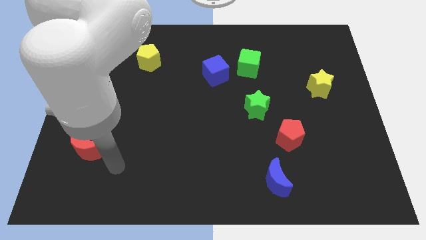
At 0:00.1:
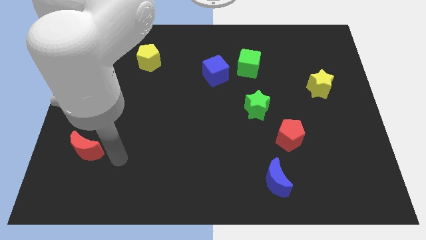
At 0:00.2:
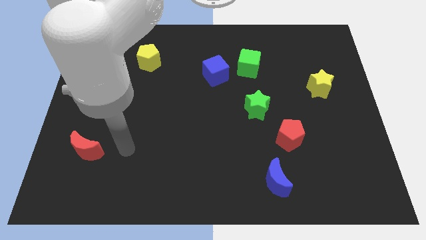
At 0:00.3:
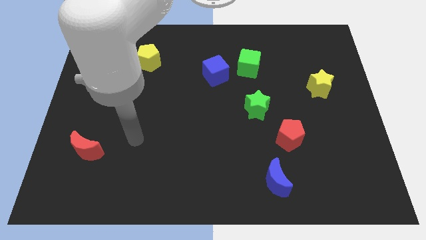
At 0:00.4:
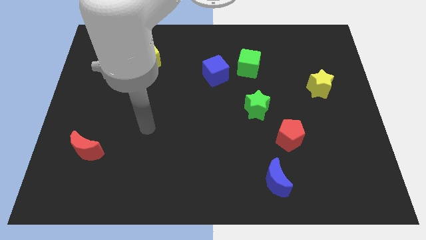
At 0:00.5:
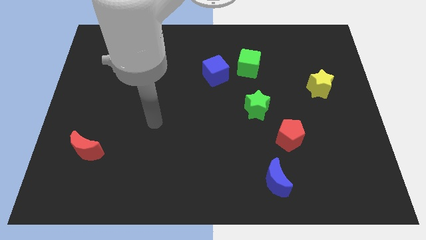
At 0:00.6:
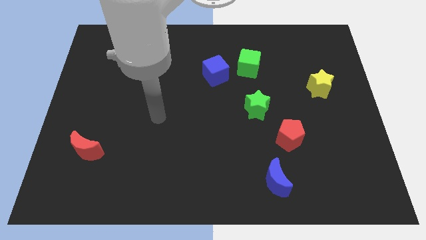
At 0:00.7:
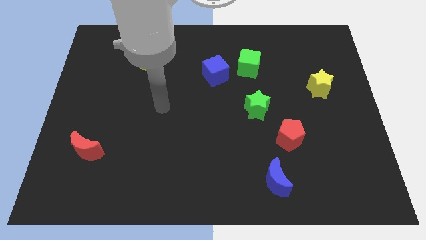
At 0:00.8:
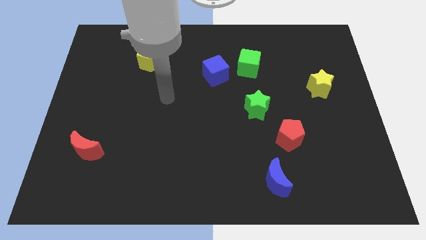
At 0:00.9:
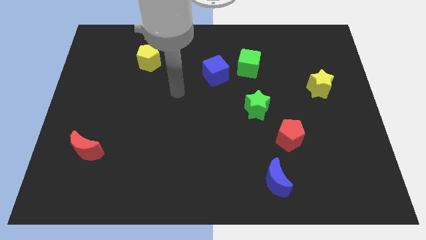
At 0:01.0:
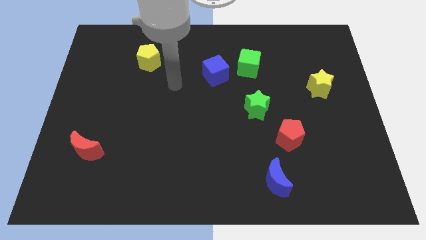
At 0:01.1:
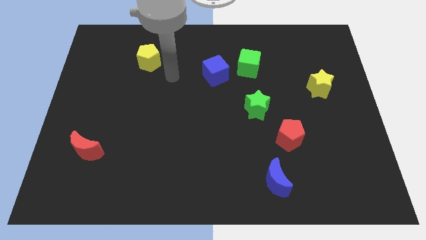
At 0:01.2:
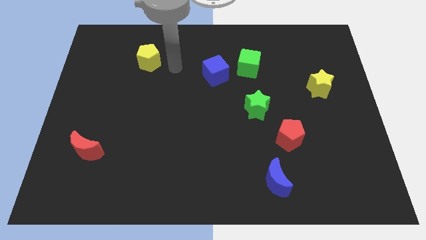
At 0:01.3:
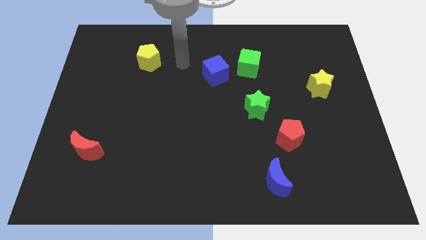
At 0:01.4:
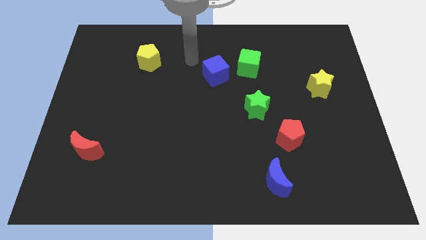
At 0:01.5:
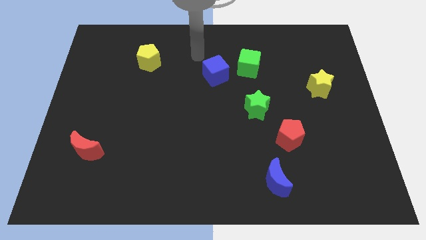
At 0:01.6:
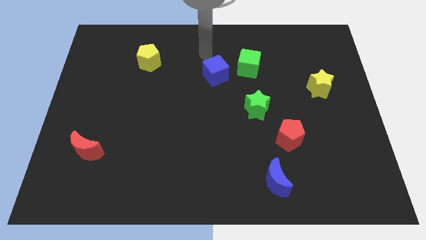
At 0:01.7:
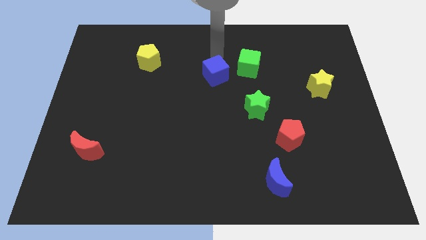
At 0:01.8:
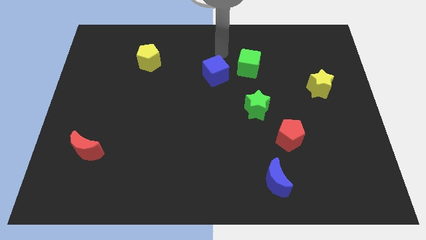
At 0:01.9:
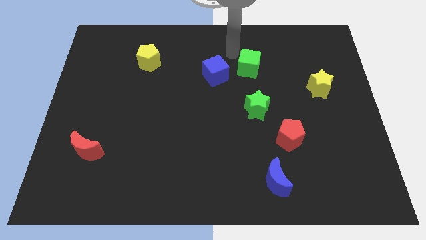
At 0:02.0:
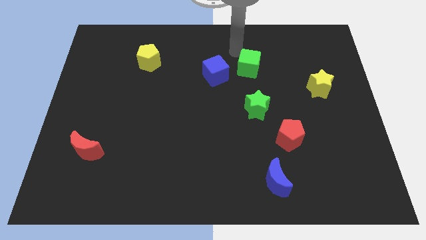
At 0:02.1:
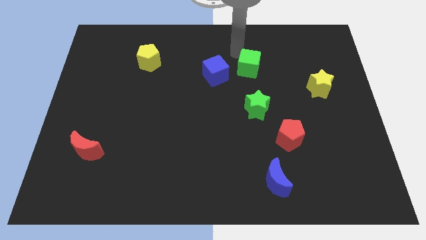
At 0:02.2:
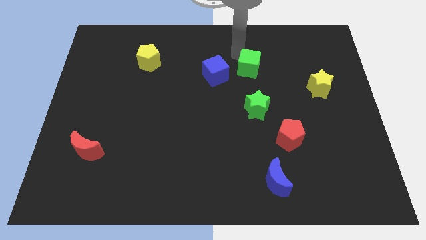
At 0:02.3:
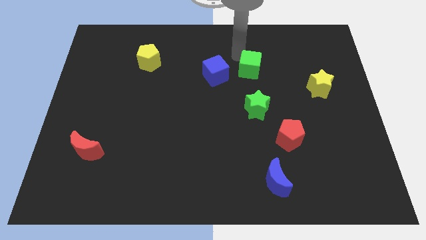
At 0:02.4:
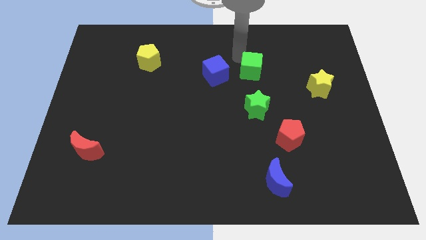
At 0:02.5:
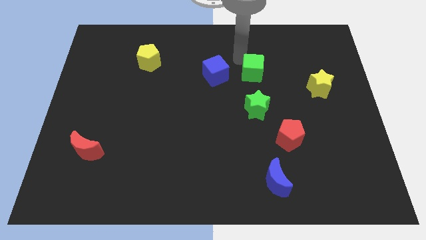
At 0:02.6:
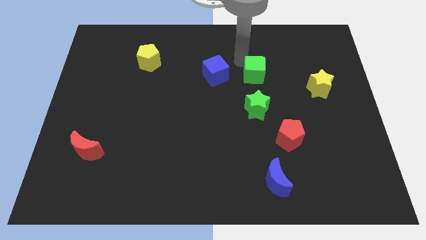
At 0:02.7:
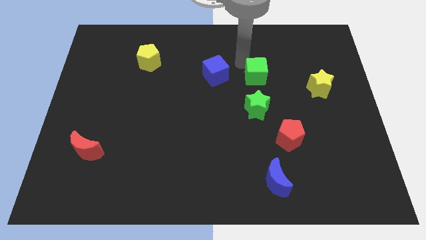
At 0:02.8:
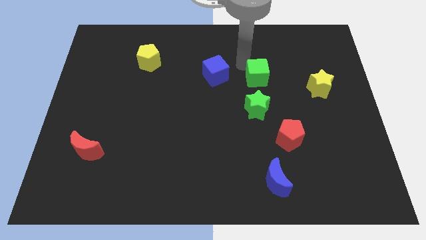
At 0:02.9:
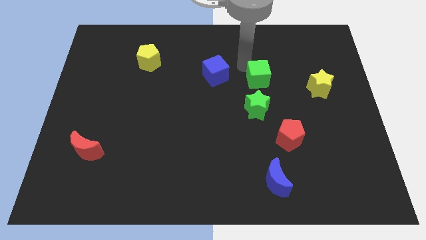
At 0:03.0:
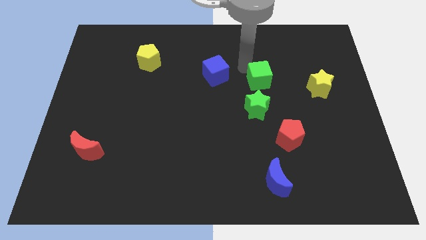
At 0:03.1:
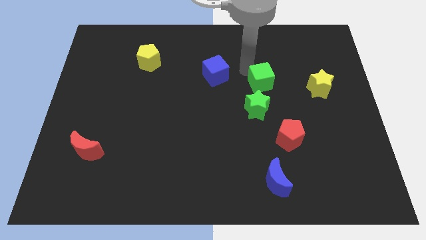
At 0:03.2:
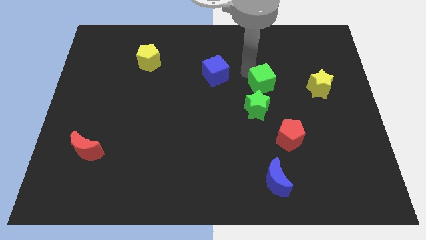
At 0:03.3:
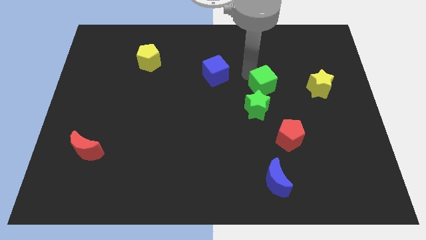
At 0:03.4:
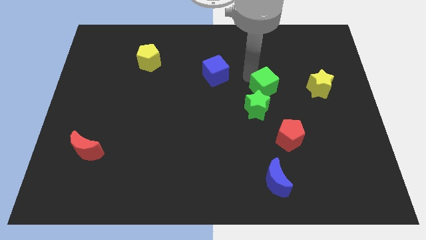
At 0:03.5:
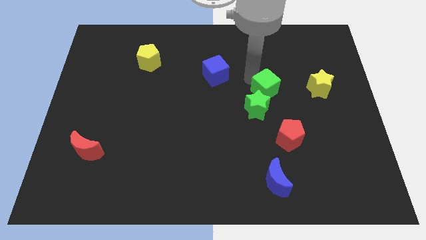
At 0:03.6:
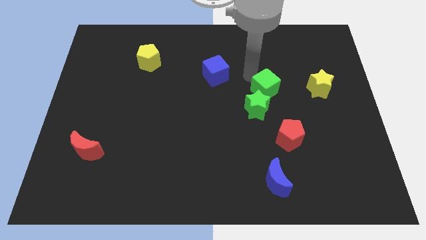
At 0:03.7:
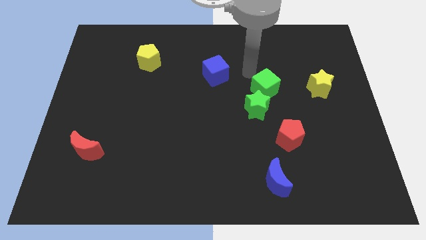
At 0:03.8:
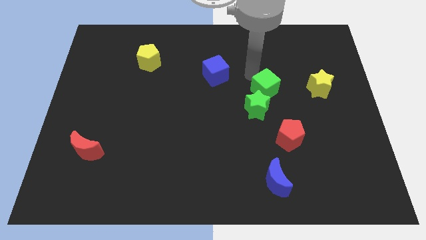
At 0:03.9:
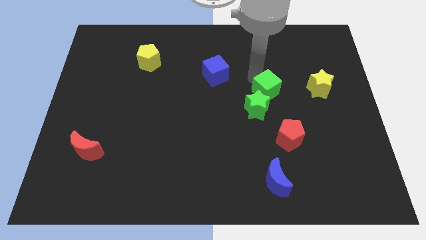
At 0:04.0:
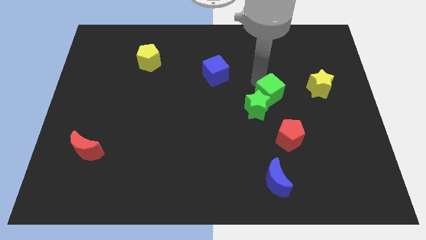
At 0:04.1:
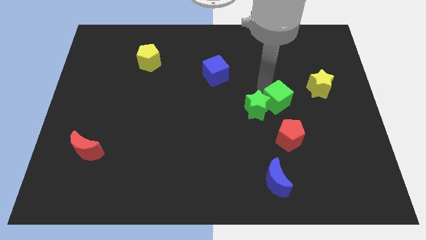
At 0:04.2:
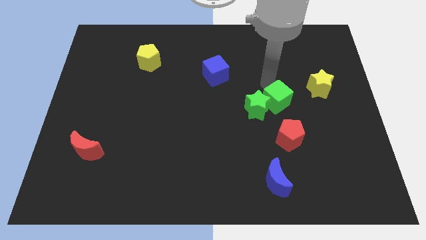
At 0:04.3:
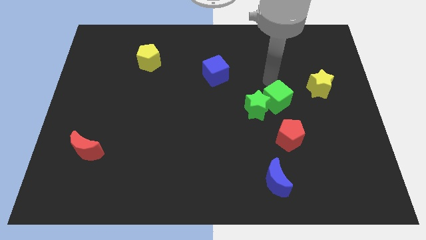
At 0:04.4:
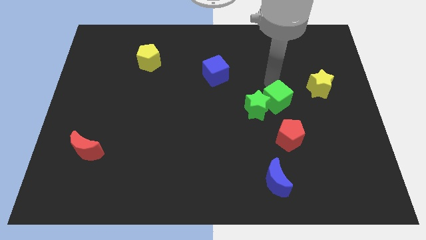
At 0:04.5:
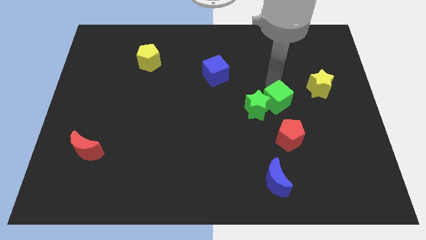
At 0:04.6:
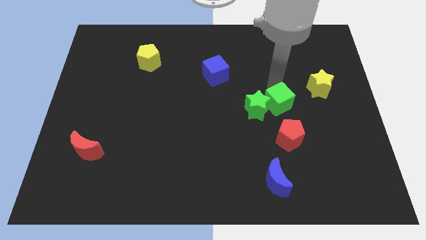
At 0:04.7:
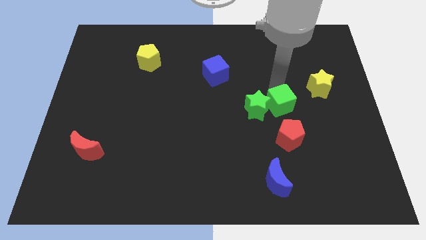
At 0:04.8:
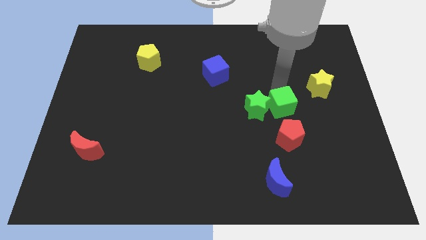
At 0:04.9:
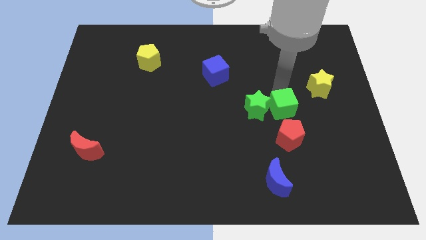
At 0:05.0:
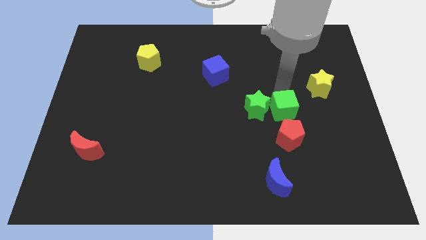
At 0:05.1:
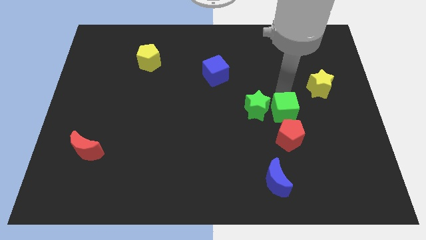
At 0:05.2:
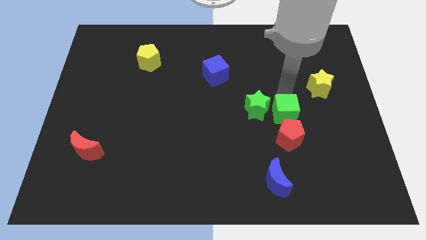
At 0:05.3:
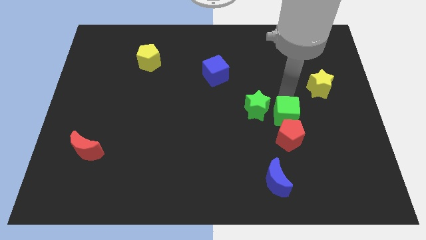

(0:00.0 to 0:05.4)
move the green cube next to the red pentagon

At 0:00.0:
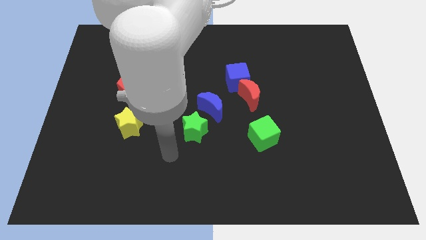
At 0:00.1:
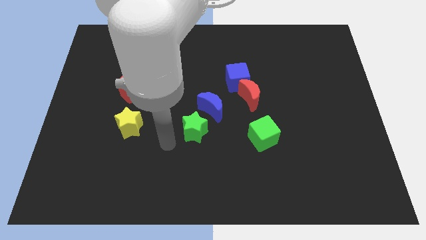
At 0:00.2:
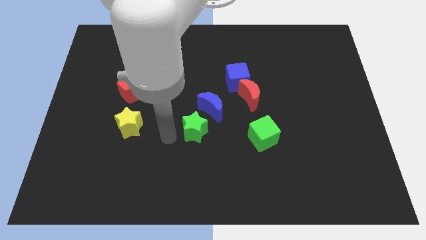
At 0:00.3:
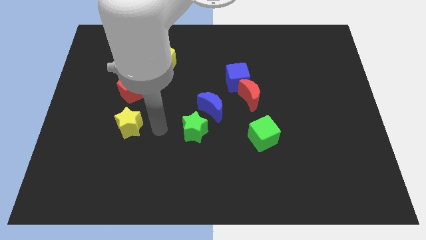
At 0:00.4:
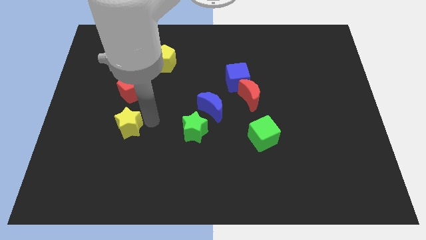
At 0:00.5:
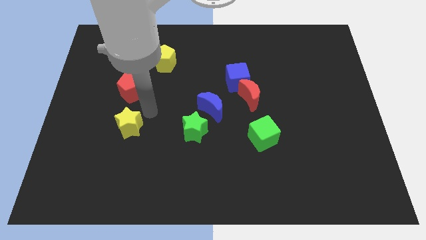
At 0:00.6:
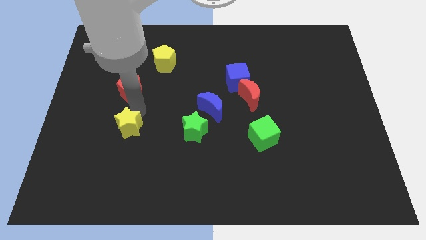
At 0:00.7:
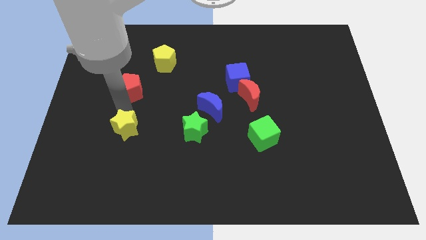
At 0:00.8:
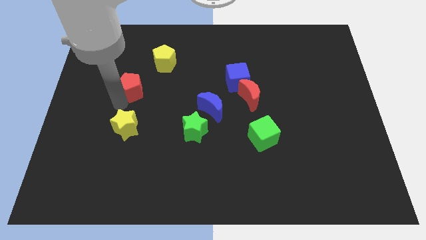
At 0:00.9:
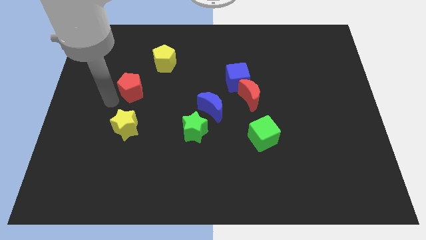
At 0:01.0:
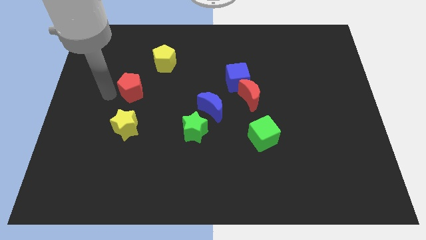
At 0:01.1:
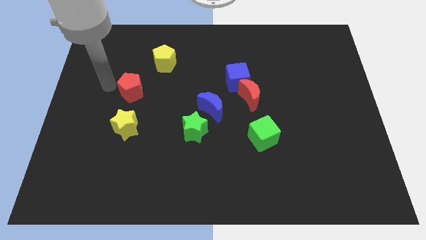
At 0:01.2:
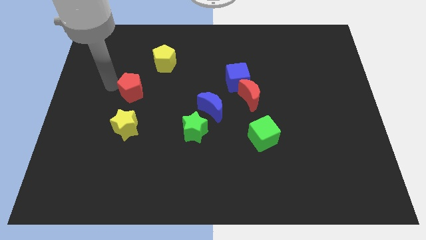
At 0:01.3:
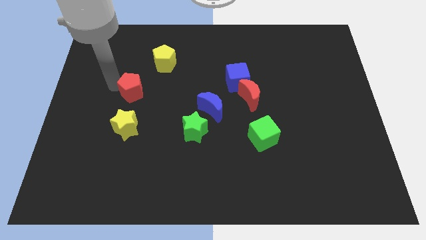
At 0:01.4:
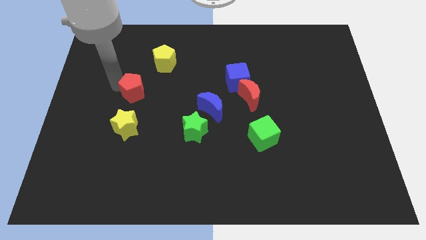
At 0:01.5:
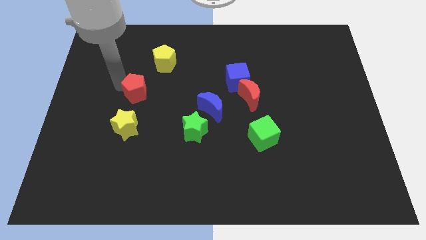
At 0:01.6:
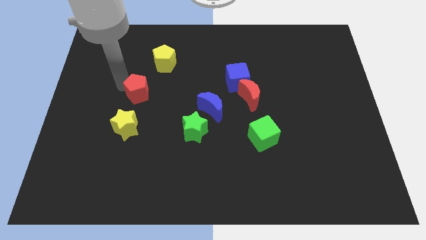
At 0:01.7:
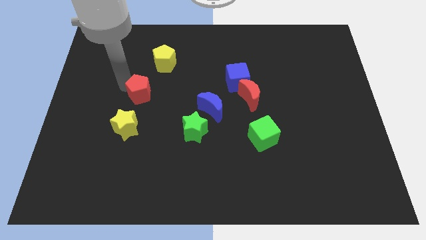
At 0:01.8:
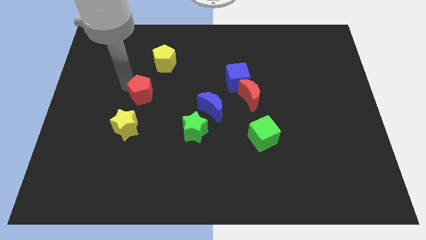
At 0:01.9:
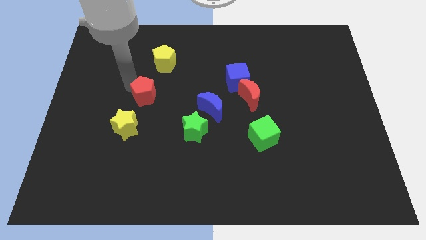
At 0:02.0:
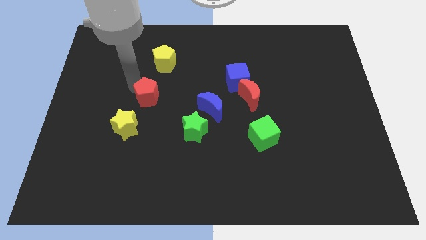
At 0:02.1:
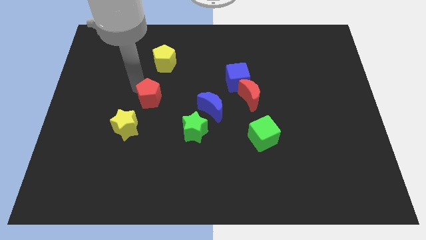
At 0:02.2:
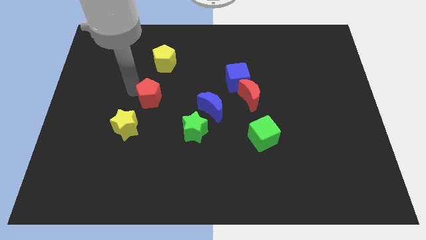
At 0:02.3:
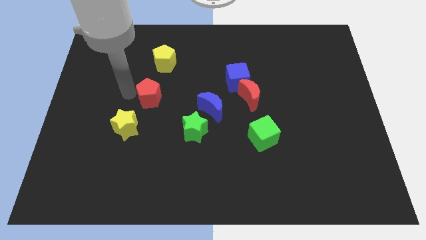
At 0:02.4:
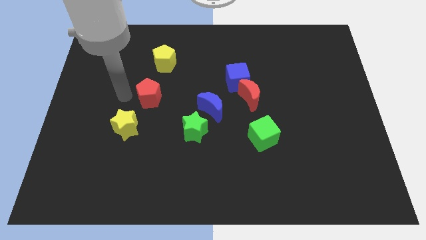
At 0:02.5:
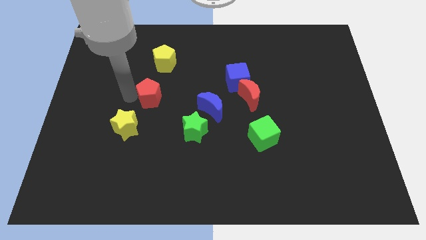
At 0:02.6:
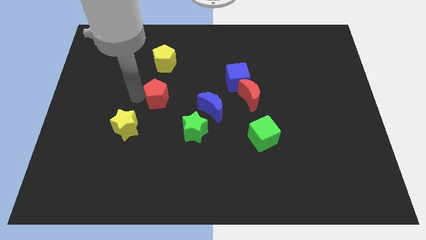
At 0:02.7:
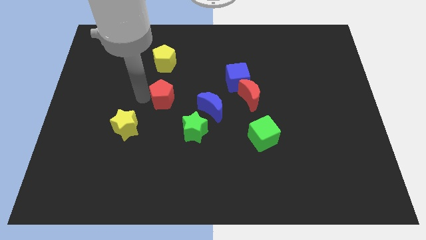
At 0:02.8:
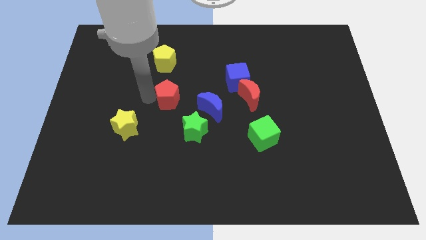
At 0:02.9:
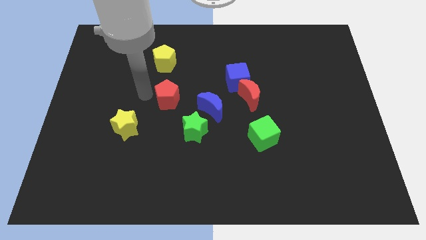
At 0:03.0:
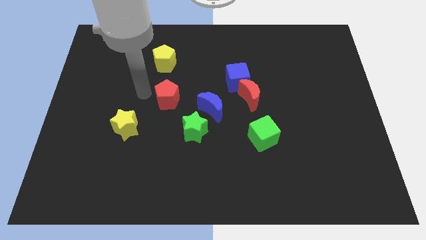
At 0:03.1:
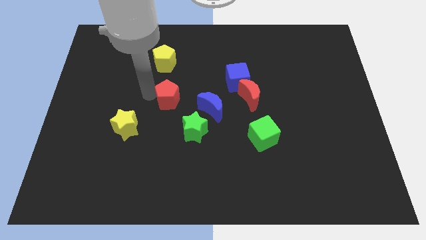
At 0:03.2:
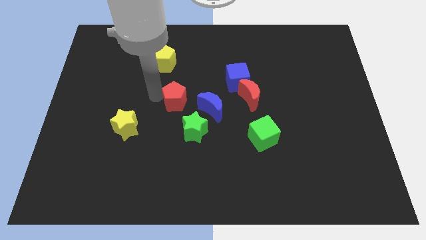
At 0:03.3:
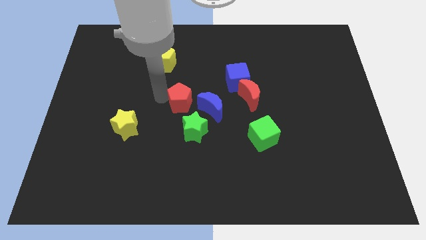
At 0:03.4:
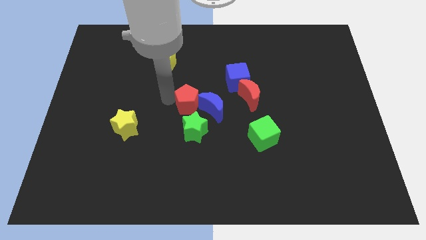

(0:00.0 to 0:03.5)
put the red pentagon close to the blue moon
